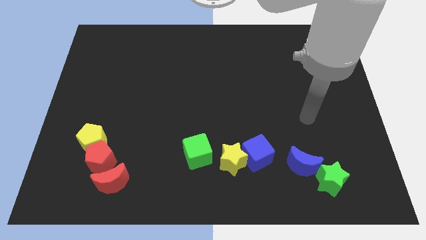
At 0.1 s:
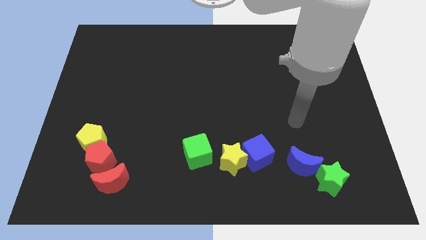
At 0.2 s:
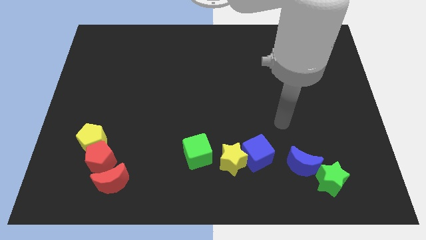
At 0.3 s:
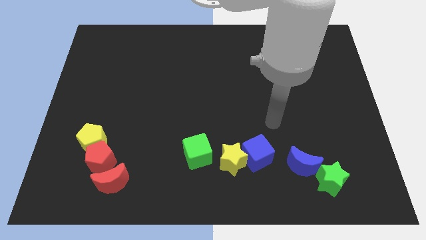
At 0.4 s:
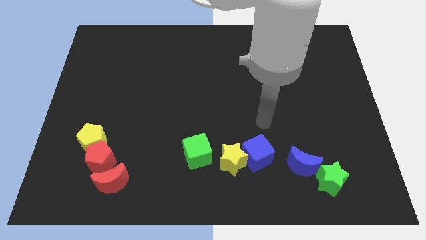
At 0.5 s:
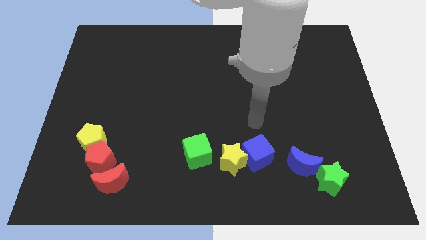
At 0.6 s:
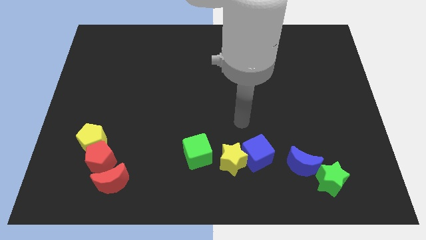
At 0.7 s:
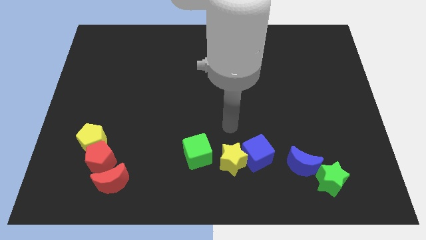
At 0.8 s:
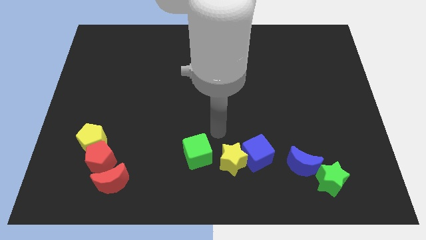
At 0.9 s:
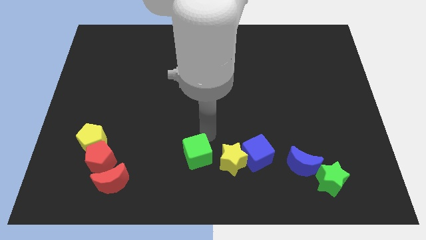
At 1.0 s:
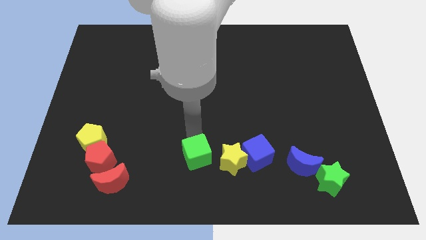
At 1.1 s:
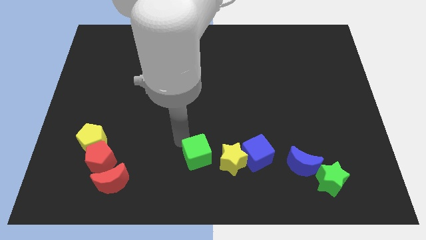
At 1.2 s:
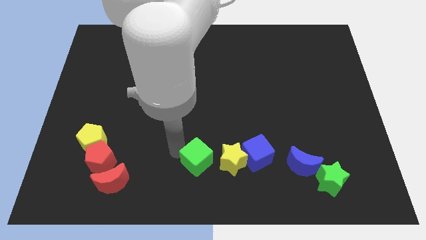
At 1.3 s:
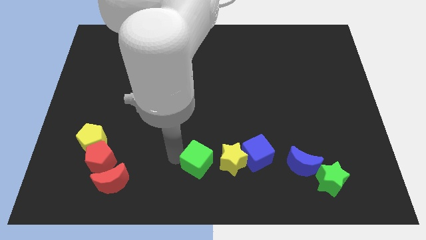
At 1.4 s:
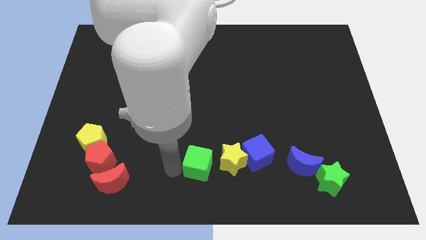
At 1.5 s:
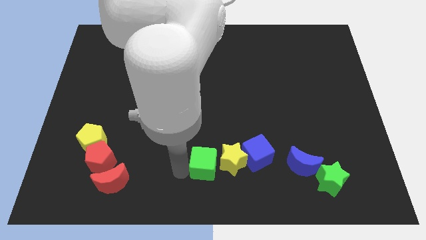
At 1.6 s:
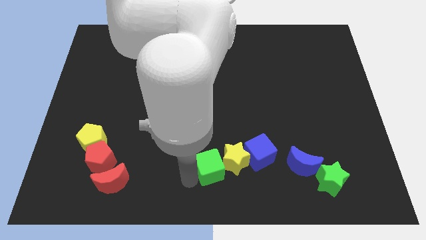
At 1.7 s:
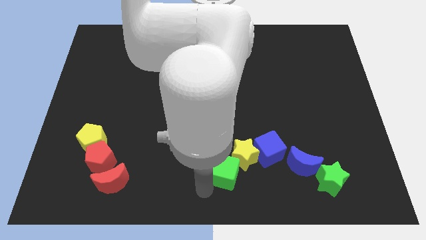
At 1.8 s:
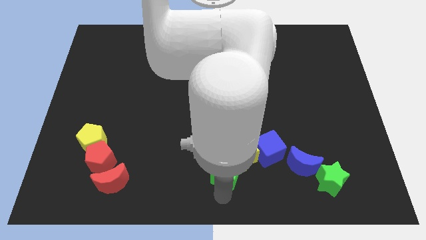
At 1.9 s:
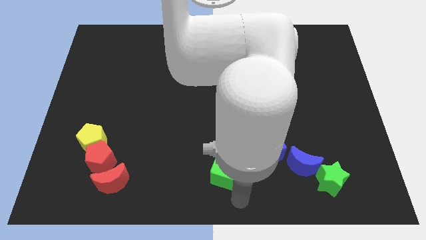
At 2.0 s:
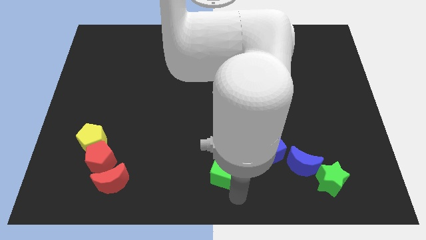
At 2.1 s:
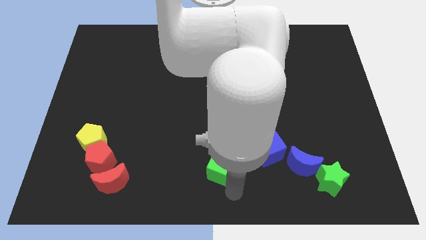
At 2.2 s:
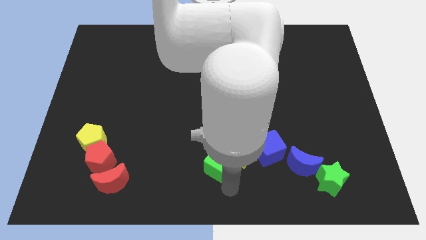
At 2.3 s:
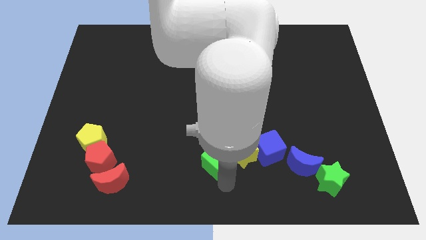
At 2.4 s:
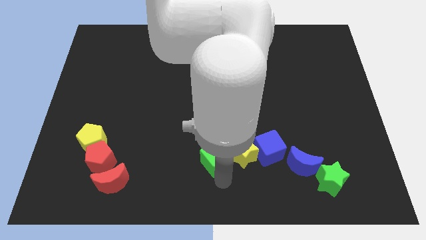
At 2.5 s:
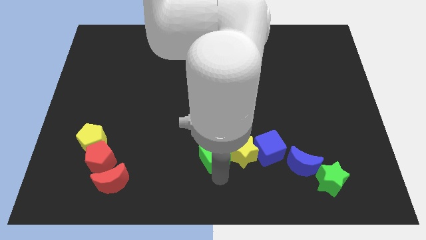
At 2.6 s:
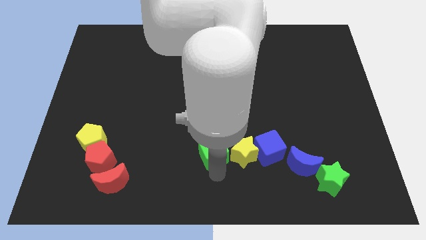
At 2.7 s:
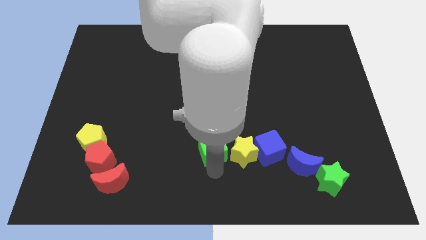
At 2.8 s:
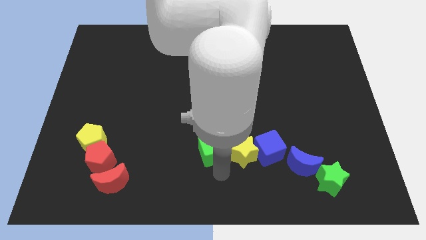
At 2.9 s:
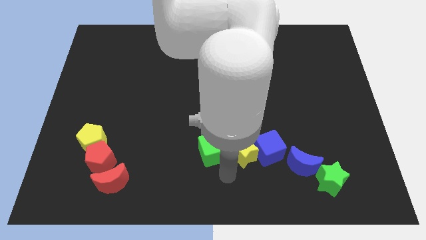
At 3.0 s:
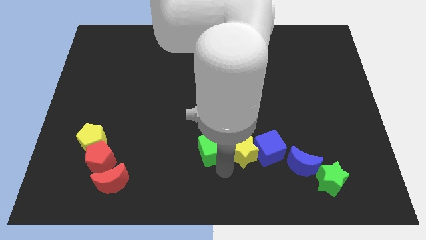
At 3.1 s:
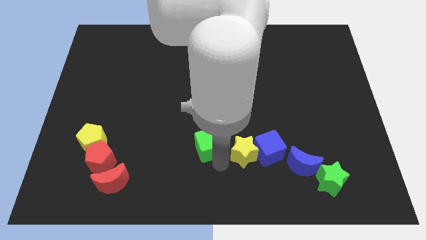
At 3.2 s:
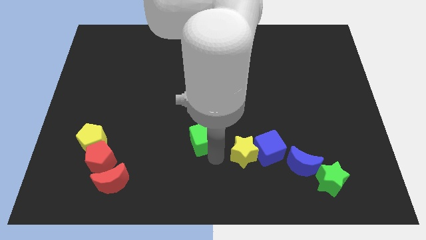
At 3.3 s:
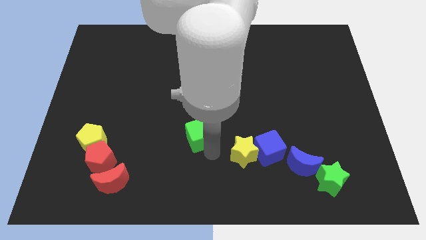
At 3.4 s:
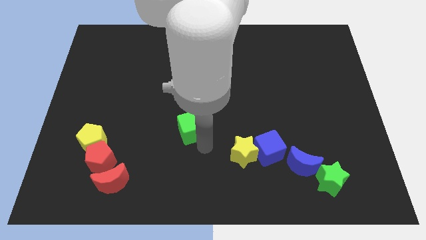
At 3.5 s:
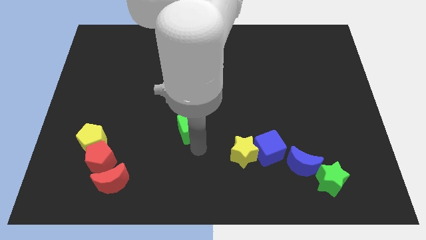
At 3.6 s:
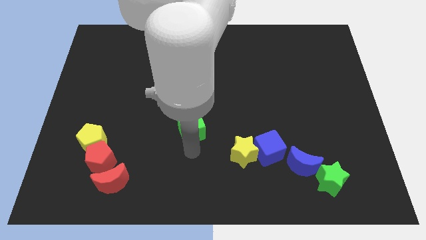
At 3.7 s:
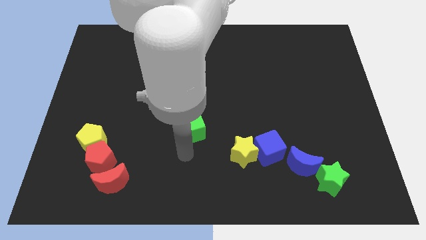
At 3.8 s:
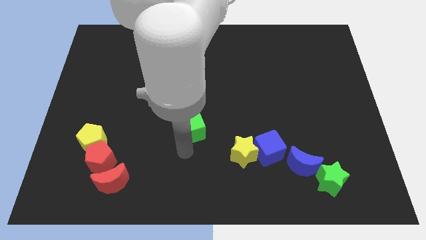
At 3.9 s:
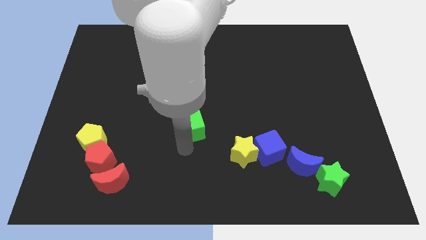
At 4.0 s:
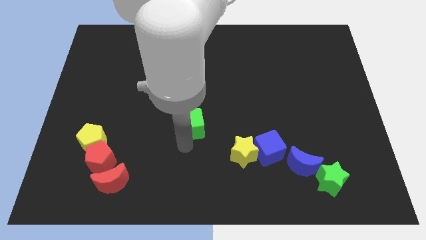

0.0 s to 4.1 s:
move the green cube somewhat up

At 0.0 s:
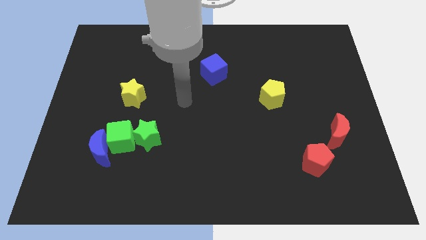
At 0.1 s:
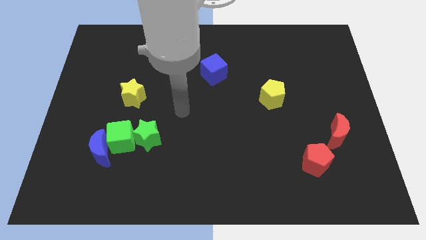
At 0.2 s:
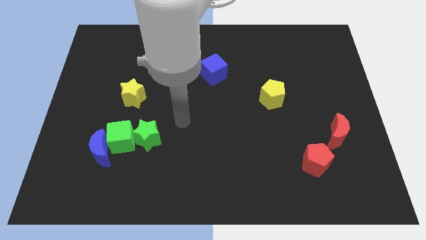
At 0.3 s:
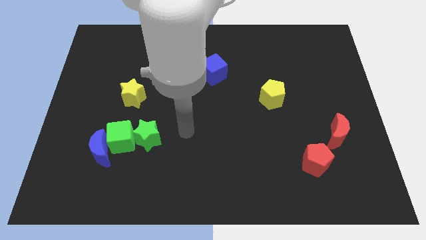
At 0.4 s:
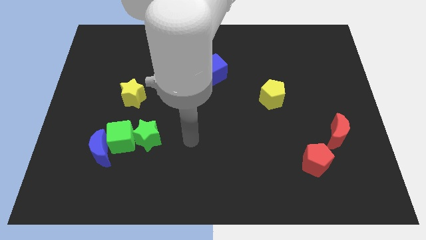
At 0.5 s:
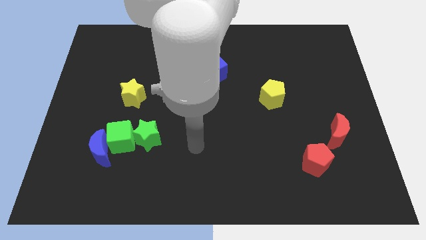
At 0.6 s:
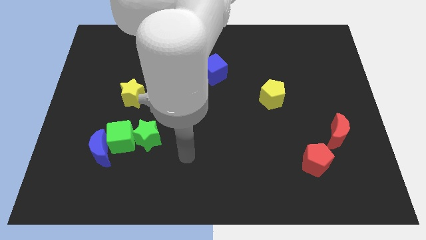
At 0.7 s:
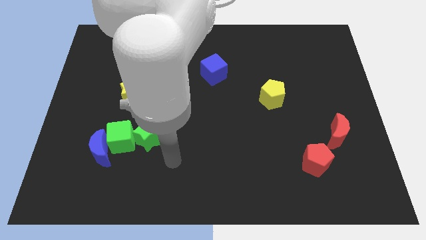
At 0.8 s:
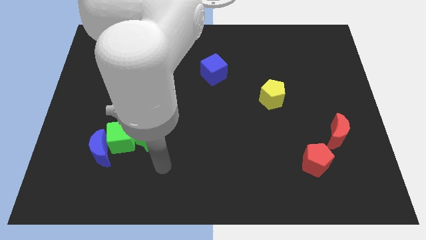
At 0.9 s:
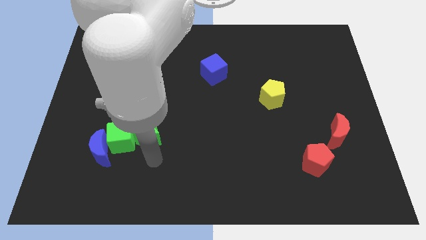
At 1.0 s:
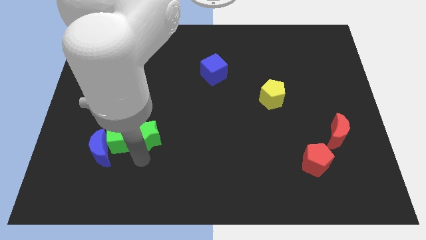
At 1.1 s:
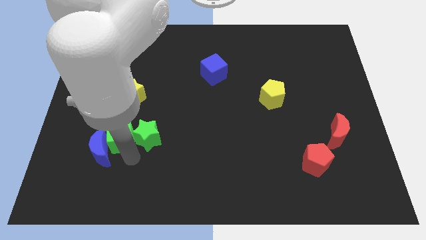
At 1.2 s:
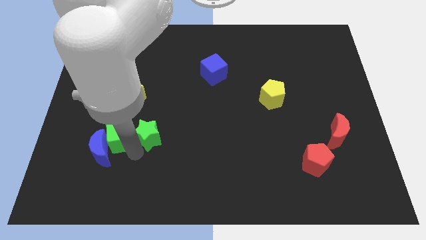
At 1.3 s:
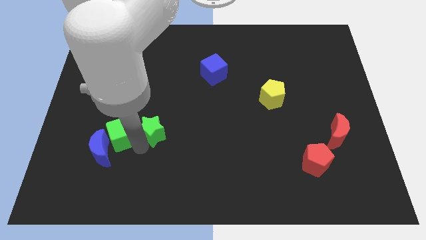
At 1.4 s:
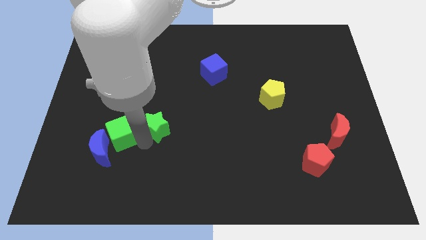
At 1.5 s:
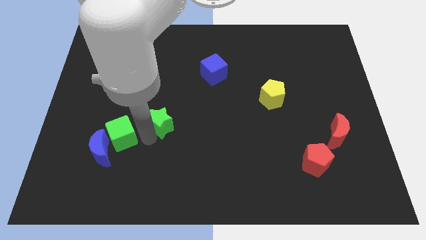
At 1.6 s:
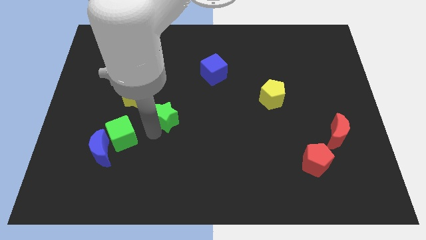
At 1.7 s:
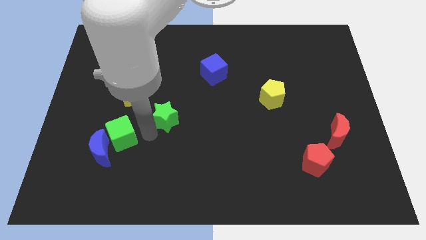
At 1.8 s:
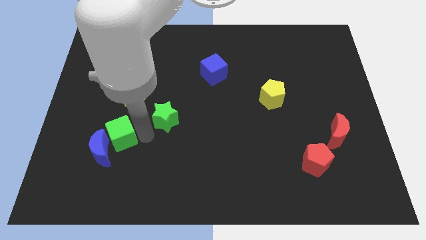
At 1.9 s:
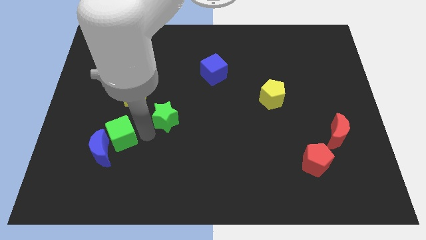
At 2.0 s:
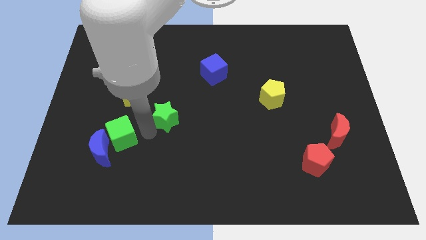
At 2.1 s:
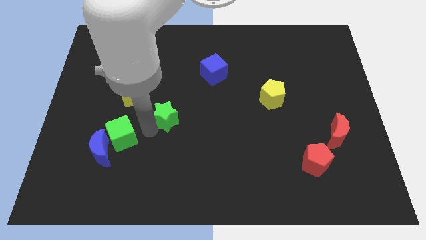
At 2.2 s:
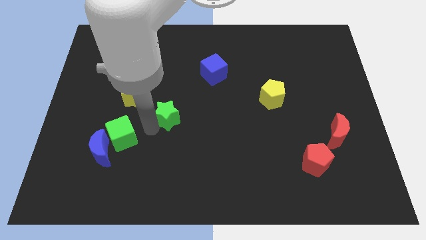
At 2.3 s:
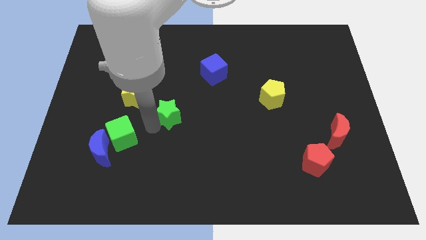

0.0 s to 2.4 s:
slightly move the green star upwards and to the right diagonally

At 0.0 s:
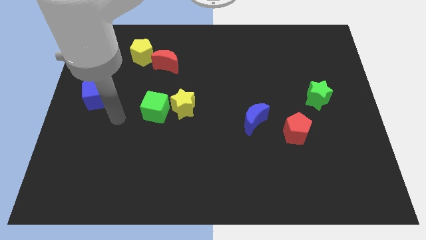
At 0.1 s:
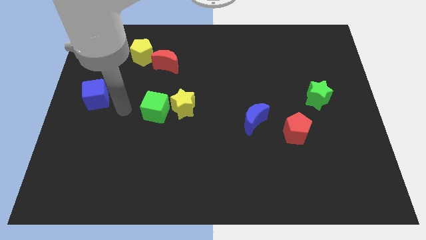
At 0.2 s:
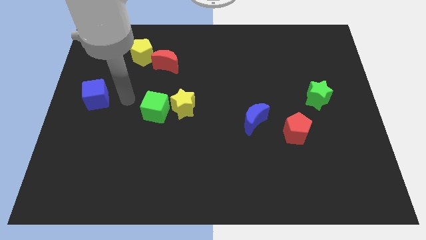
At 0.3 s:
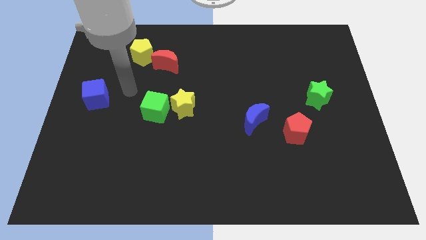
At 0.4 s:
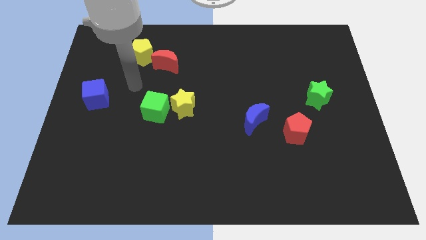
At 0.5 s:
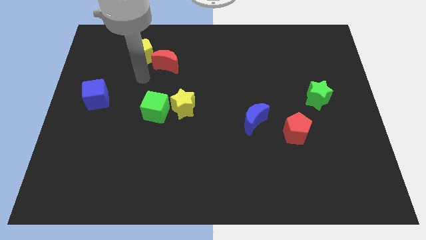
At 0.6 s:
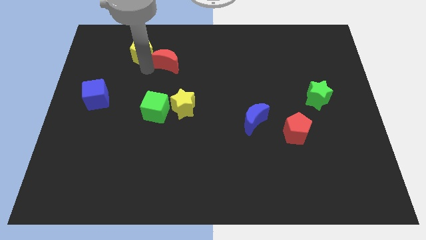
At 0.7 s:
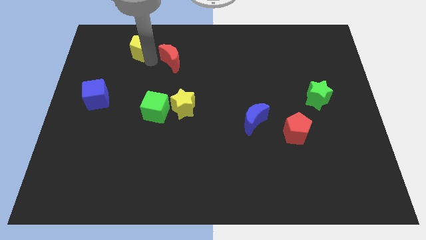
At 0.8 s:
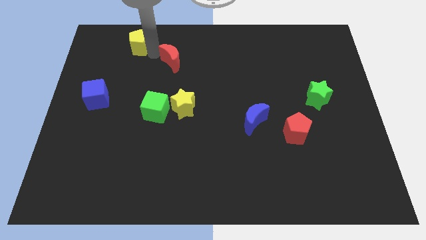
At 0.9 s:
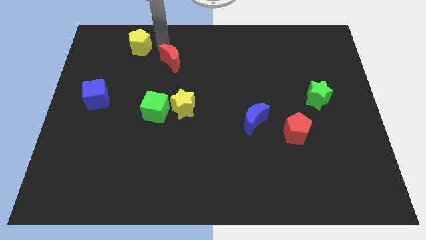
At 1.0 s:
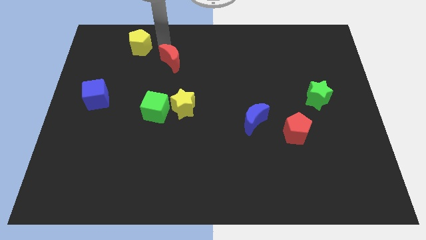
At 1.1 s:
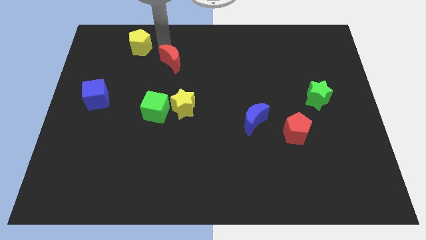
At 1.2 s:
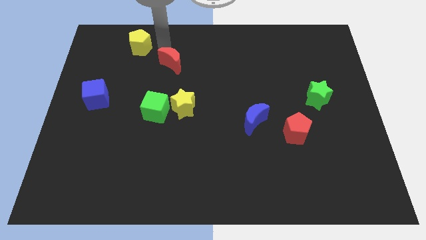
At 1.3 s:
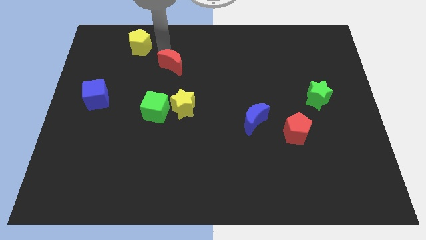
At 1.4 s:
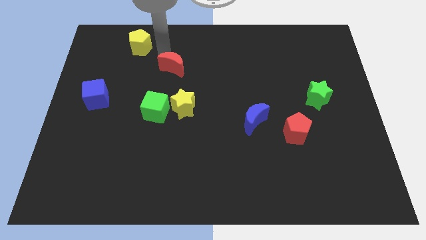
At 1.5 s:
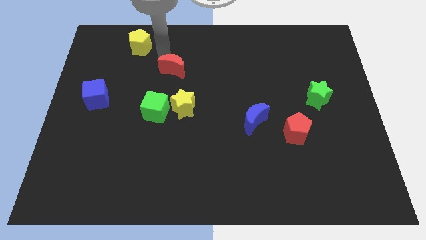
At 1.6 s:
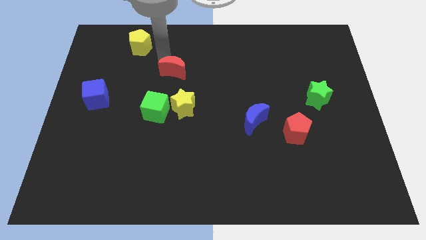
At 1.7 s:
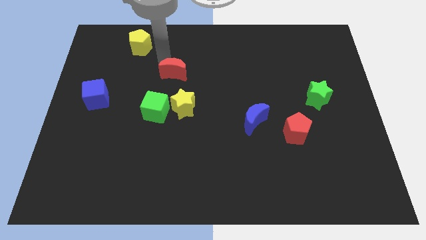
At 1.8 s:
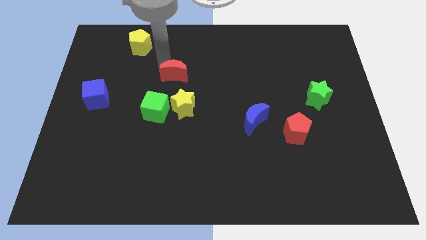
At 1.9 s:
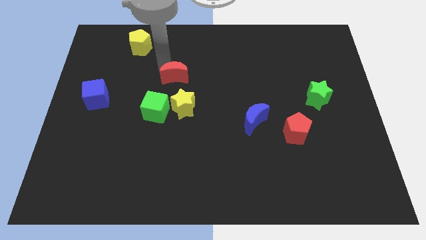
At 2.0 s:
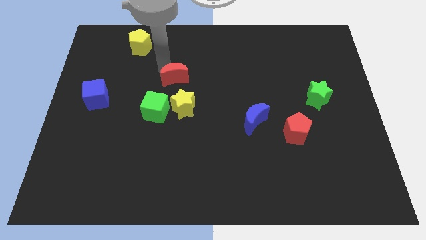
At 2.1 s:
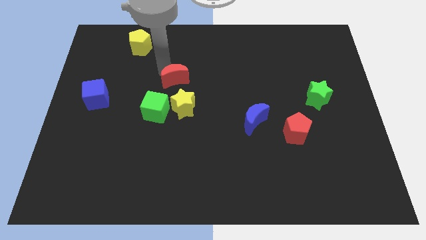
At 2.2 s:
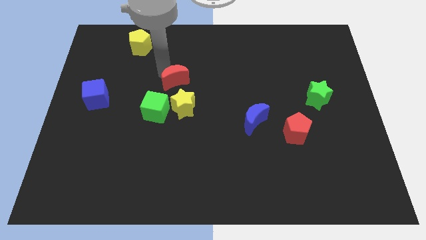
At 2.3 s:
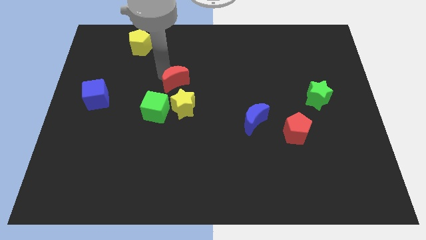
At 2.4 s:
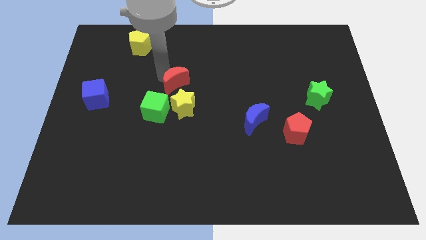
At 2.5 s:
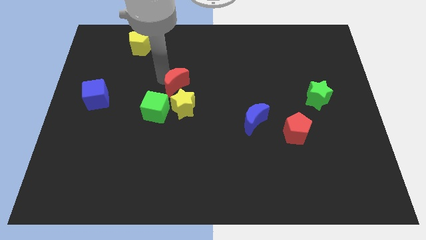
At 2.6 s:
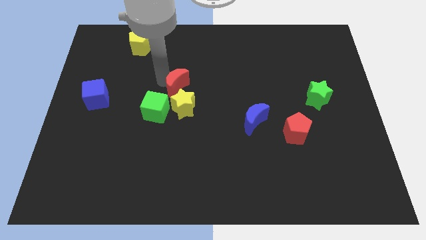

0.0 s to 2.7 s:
slightly move the red moon down and right
